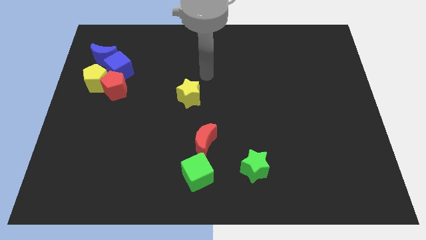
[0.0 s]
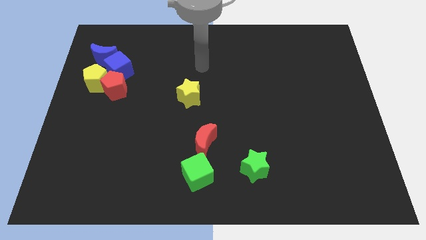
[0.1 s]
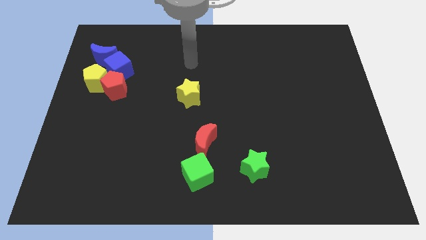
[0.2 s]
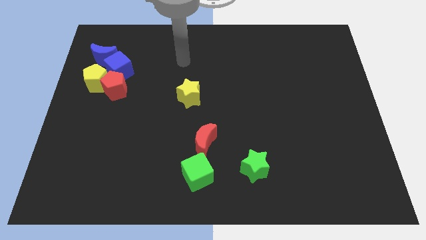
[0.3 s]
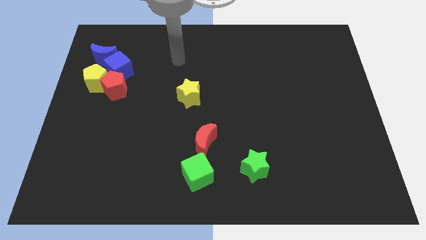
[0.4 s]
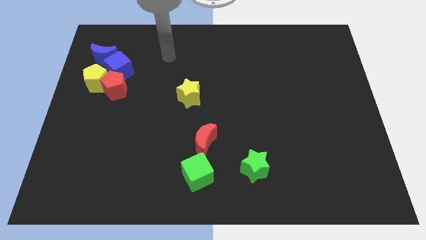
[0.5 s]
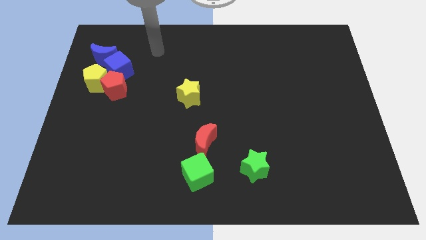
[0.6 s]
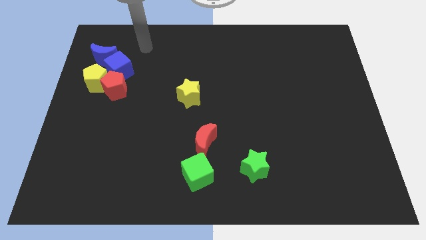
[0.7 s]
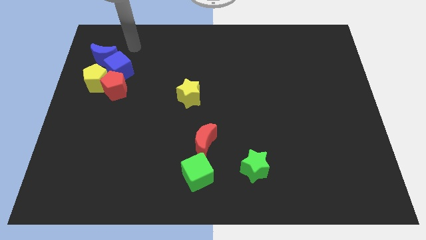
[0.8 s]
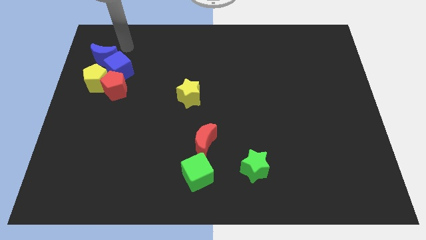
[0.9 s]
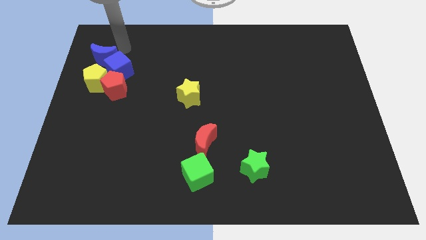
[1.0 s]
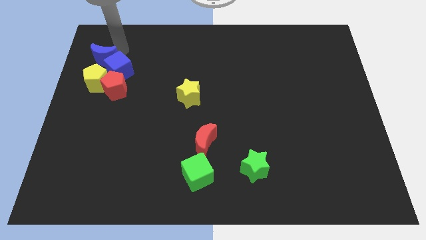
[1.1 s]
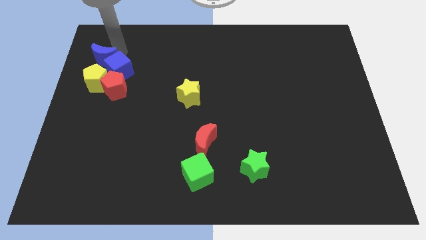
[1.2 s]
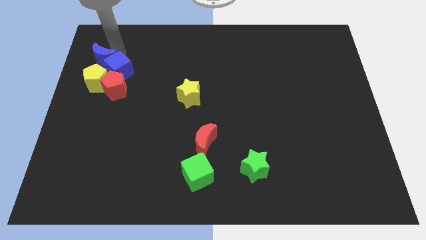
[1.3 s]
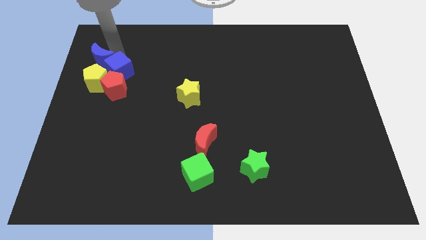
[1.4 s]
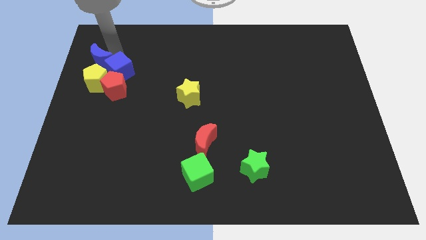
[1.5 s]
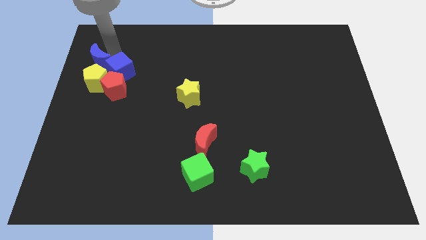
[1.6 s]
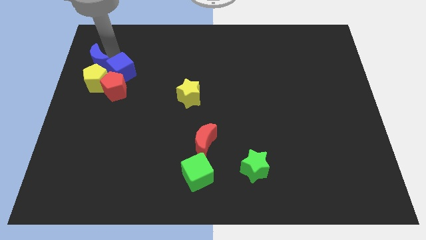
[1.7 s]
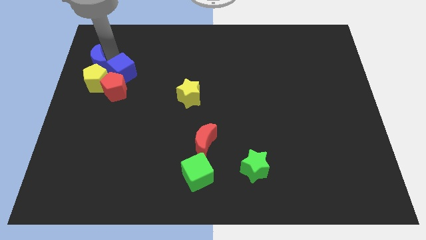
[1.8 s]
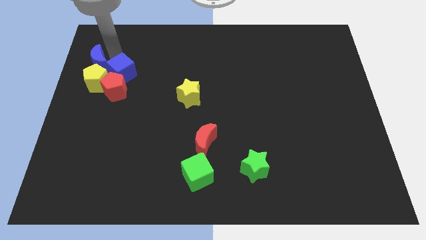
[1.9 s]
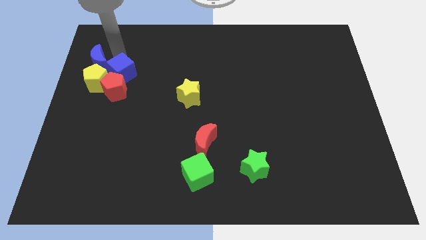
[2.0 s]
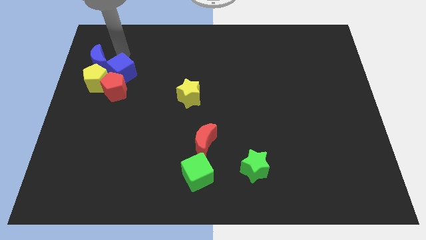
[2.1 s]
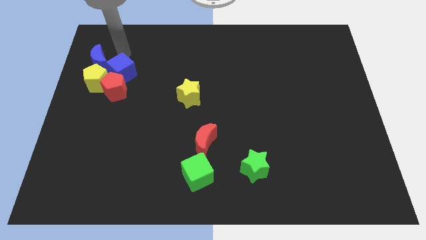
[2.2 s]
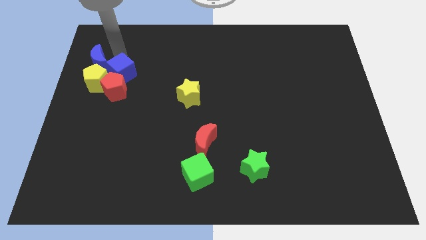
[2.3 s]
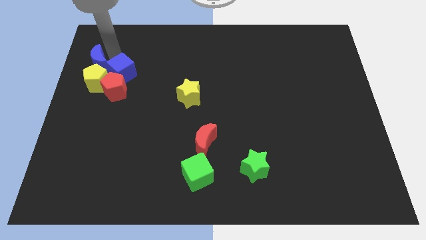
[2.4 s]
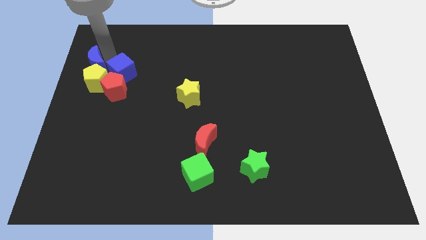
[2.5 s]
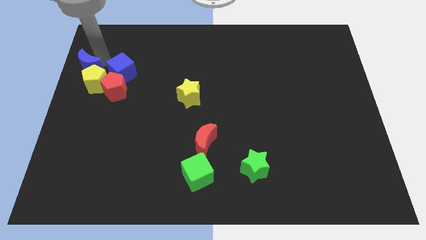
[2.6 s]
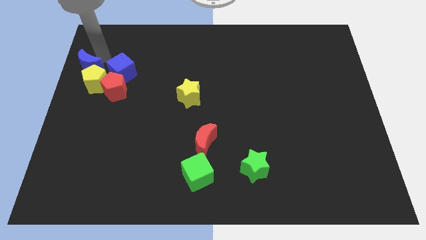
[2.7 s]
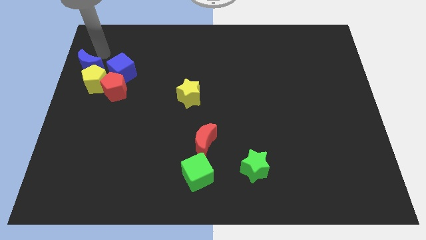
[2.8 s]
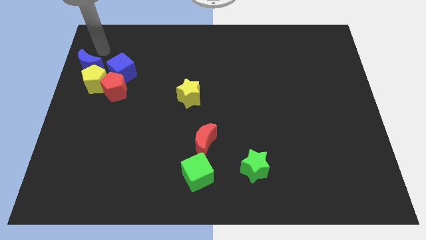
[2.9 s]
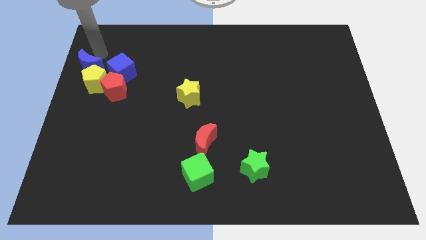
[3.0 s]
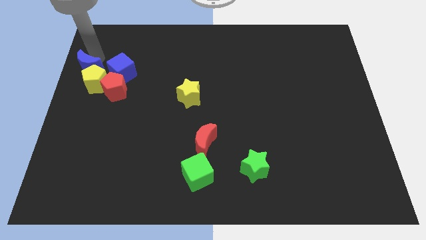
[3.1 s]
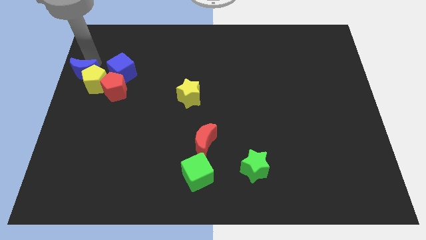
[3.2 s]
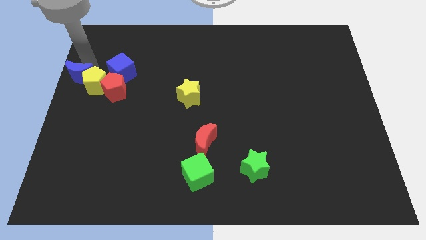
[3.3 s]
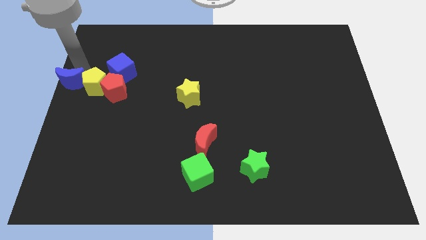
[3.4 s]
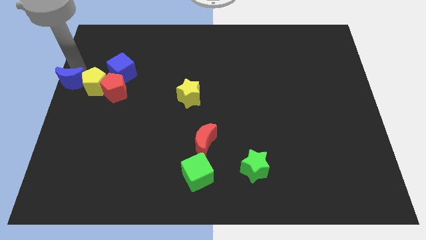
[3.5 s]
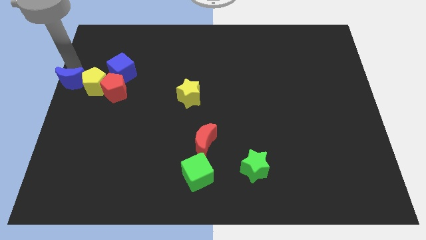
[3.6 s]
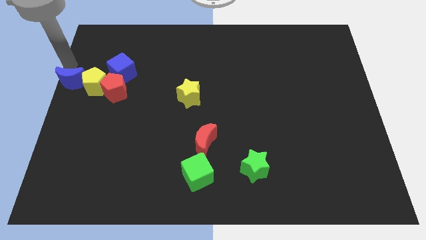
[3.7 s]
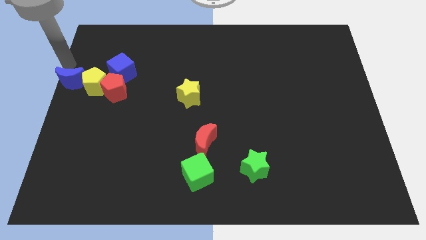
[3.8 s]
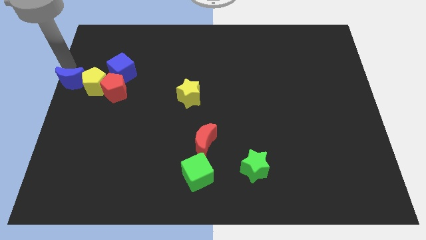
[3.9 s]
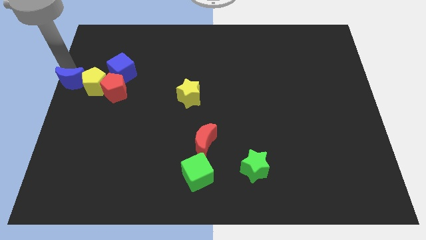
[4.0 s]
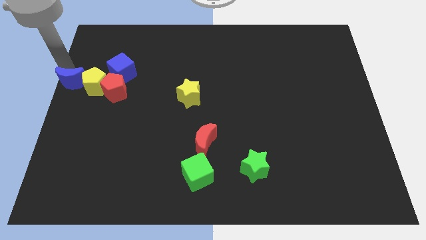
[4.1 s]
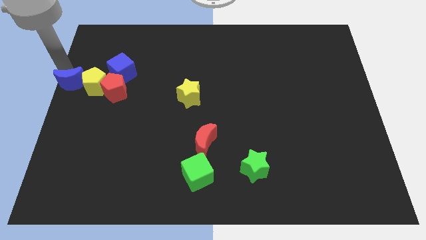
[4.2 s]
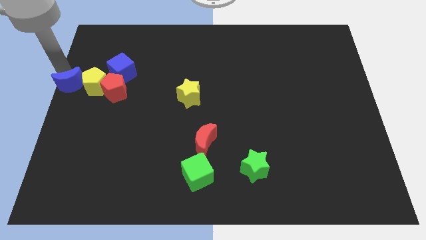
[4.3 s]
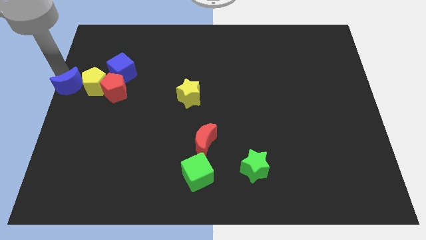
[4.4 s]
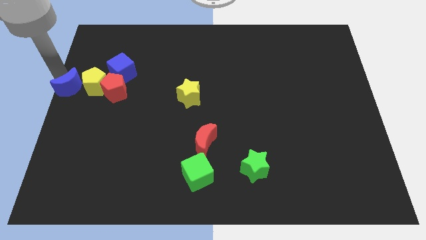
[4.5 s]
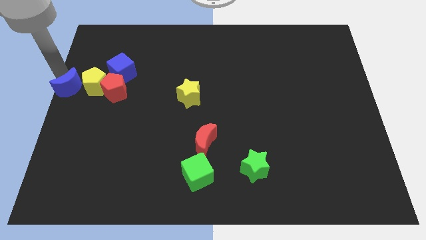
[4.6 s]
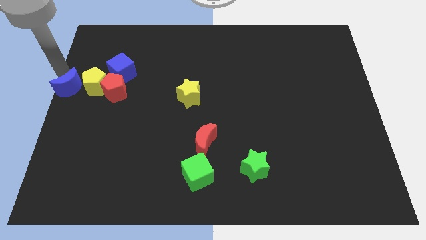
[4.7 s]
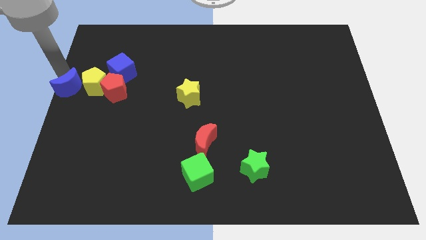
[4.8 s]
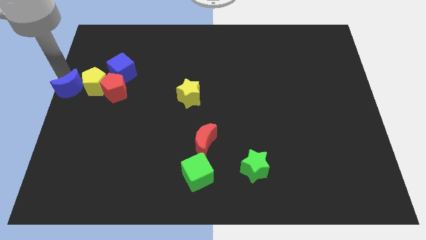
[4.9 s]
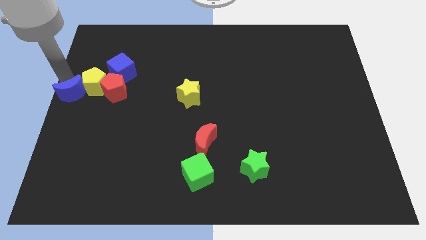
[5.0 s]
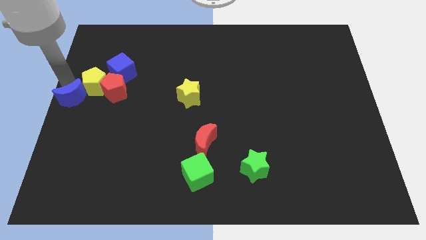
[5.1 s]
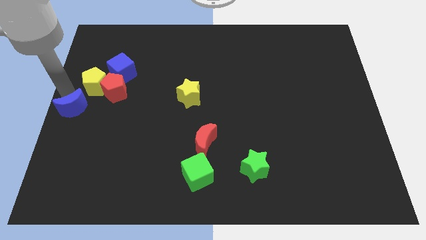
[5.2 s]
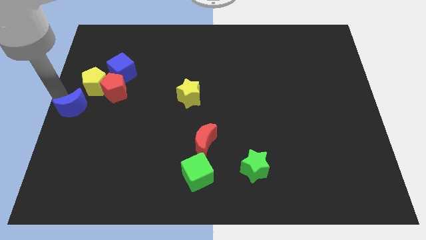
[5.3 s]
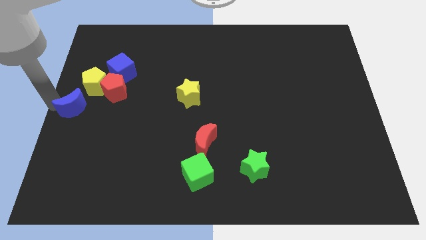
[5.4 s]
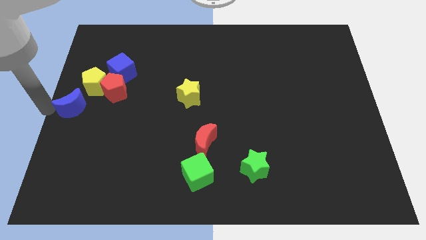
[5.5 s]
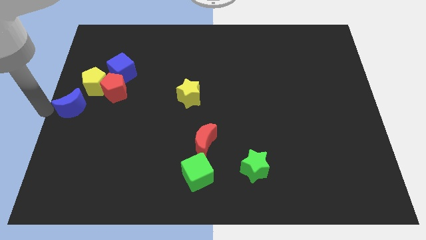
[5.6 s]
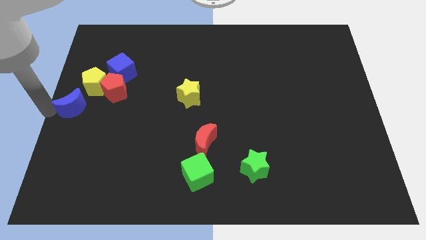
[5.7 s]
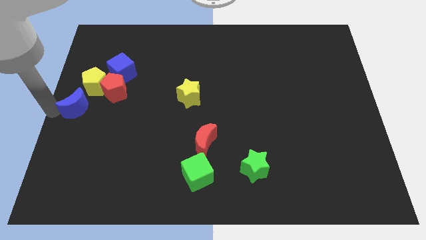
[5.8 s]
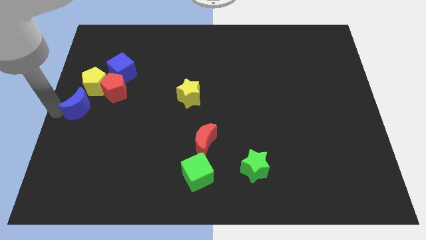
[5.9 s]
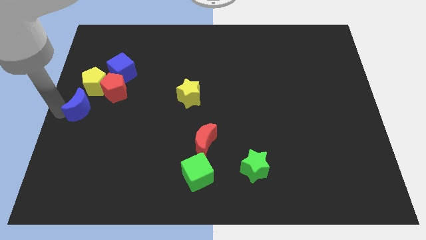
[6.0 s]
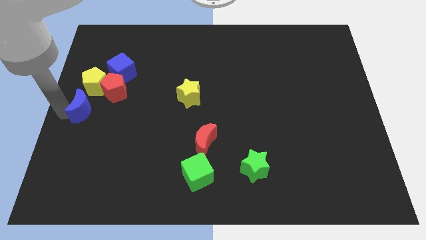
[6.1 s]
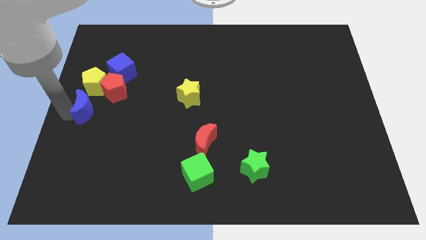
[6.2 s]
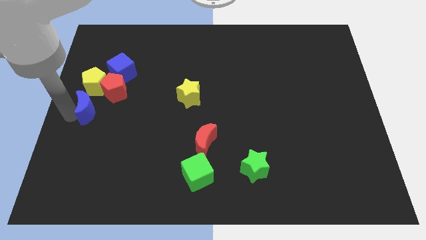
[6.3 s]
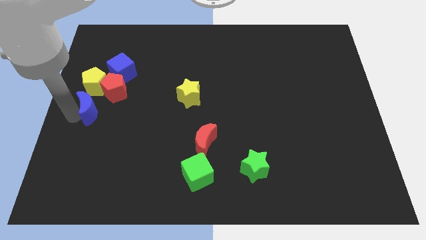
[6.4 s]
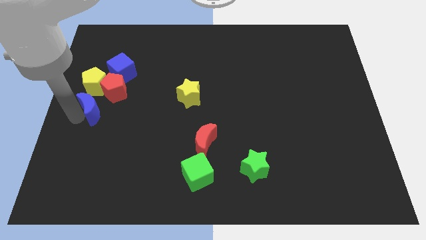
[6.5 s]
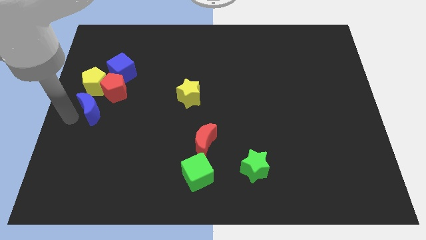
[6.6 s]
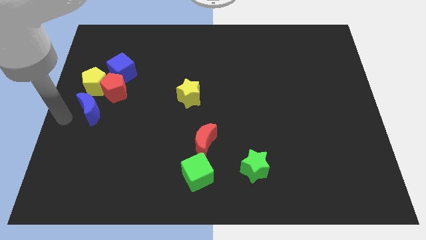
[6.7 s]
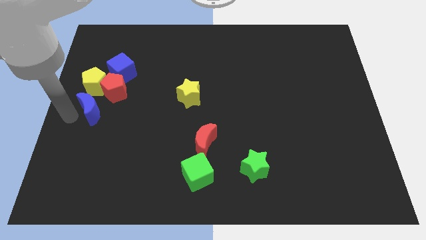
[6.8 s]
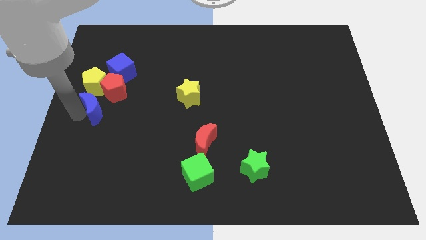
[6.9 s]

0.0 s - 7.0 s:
put the blue moon to the bottom side of the blue cube
